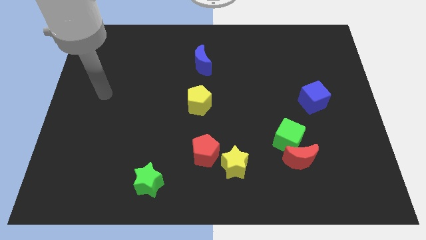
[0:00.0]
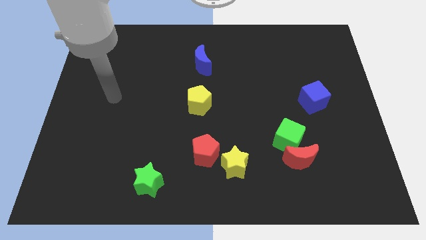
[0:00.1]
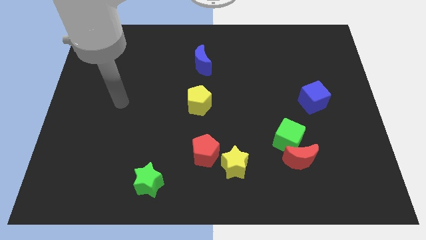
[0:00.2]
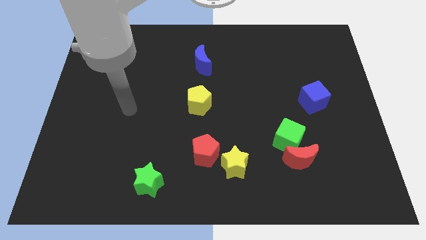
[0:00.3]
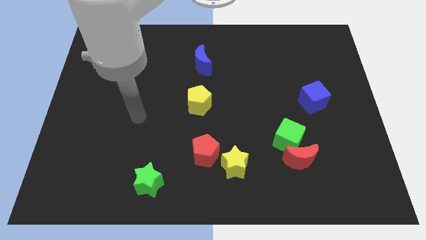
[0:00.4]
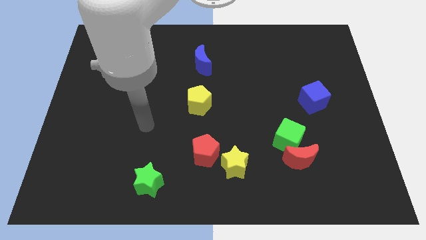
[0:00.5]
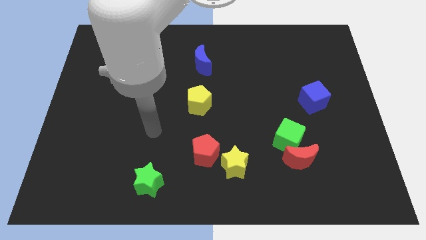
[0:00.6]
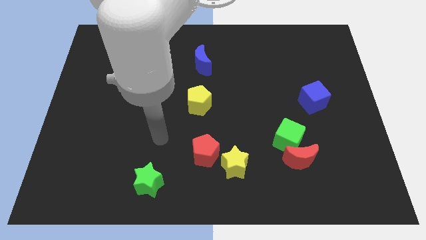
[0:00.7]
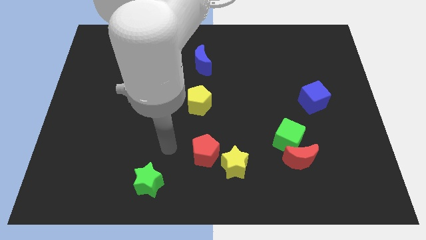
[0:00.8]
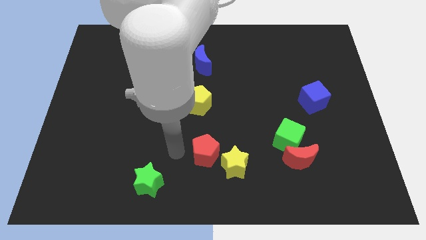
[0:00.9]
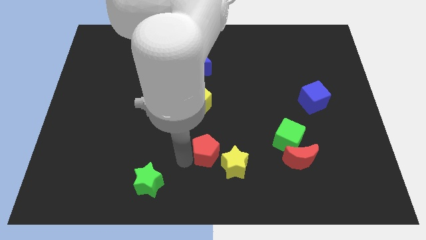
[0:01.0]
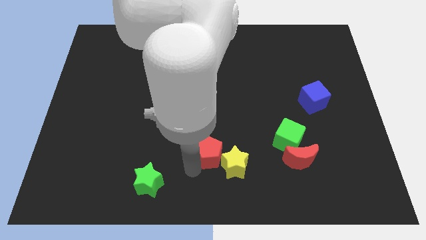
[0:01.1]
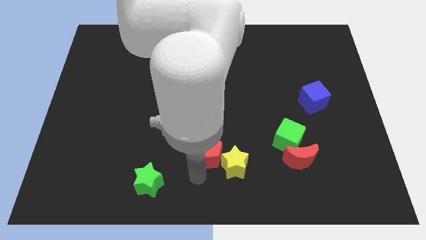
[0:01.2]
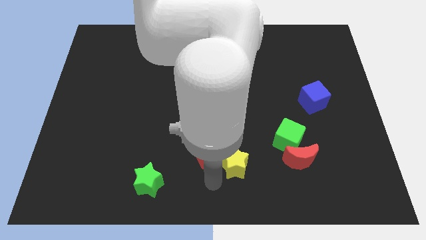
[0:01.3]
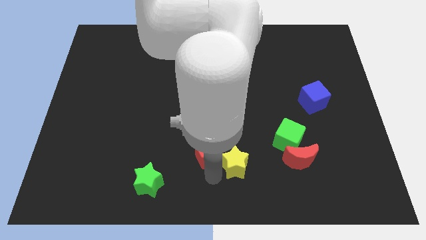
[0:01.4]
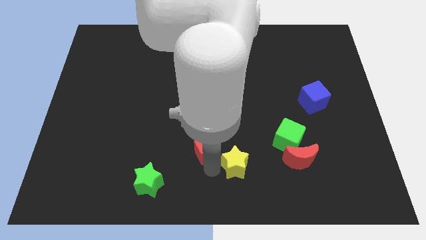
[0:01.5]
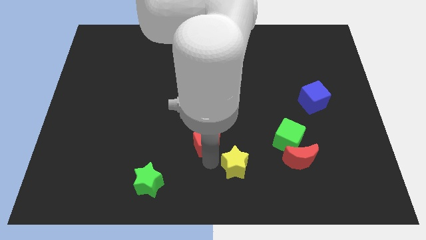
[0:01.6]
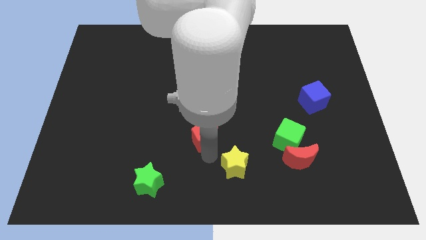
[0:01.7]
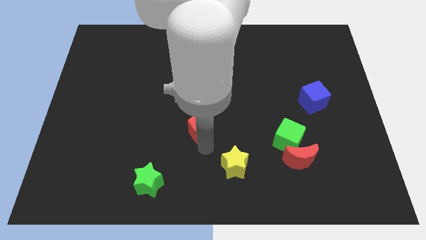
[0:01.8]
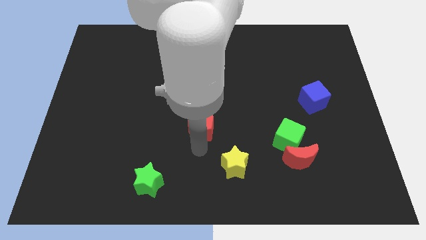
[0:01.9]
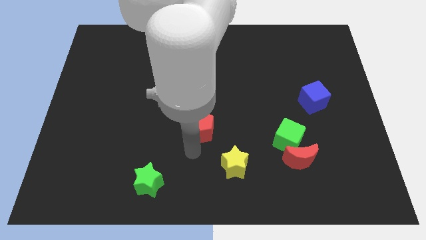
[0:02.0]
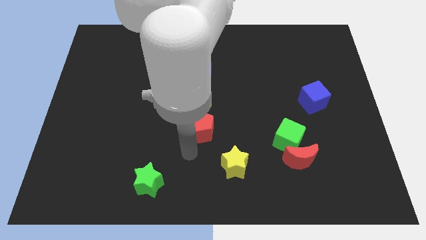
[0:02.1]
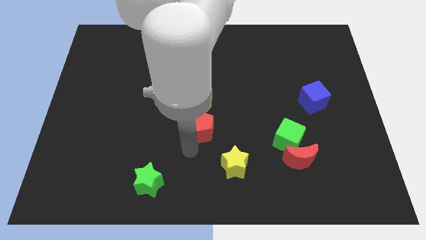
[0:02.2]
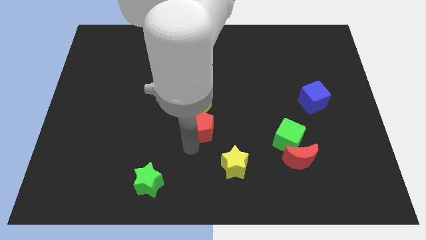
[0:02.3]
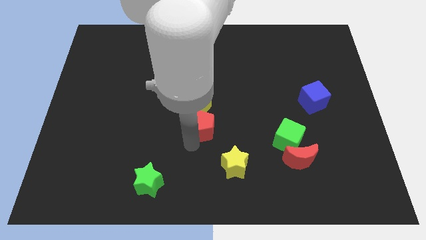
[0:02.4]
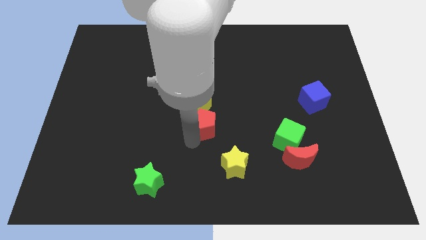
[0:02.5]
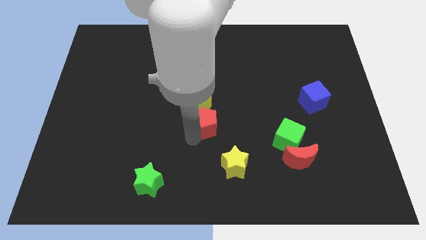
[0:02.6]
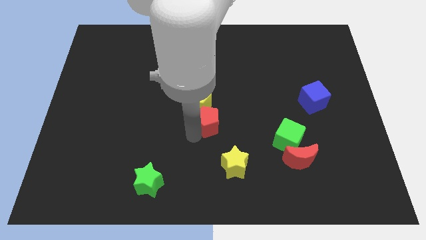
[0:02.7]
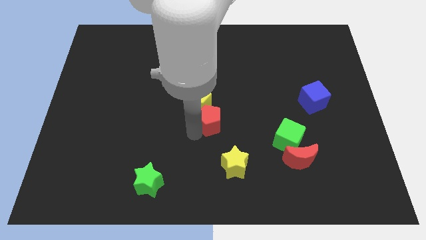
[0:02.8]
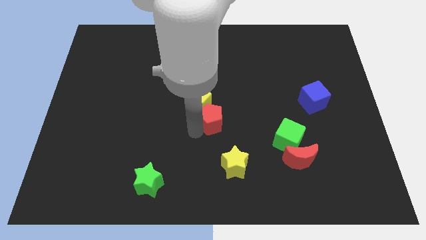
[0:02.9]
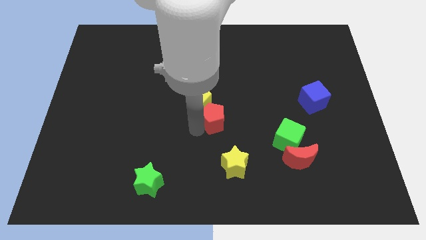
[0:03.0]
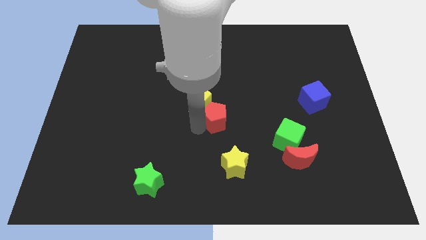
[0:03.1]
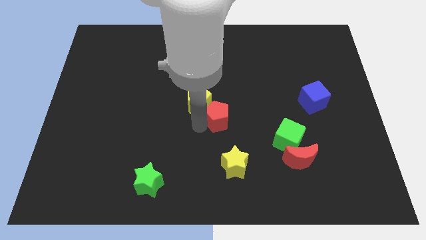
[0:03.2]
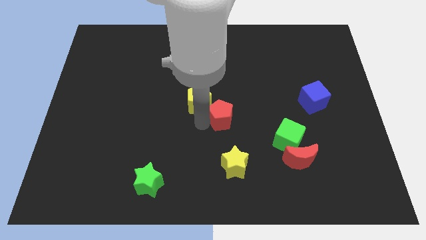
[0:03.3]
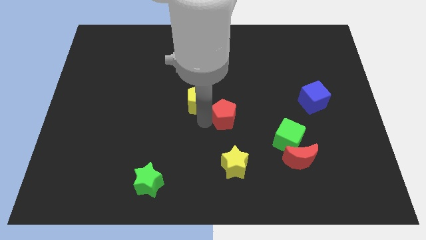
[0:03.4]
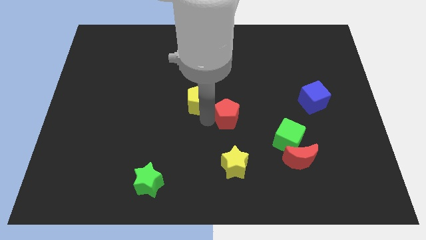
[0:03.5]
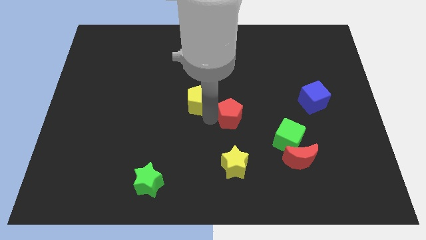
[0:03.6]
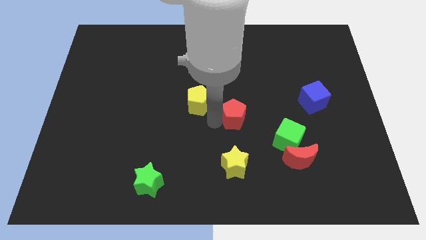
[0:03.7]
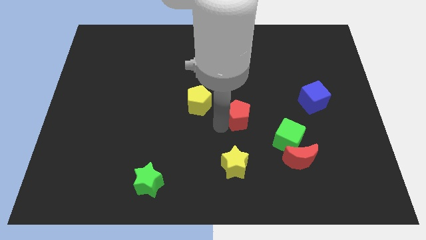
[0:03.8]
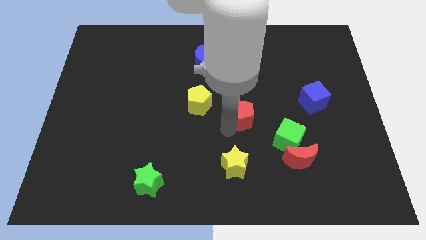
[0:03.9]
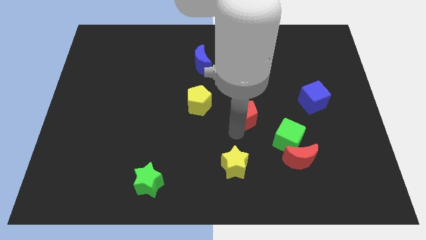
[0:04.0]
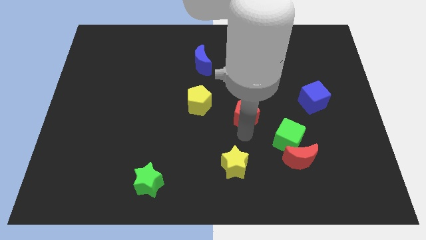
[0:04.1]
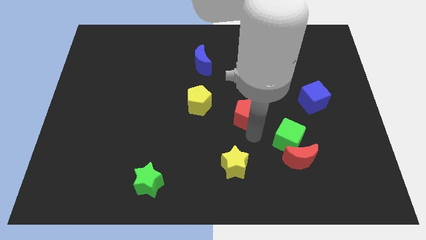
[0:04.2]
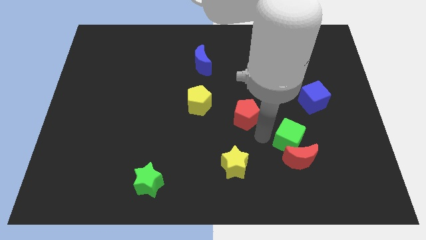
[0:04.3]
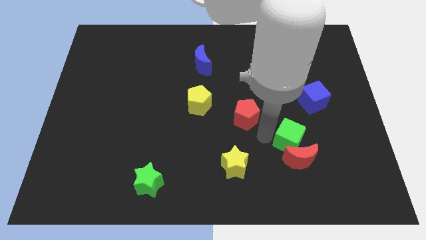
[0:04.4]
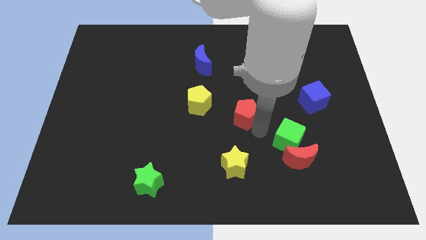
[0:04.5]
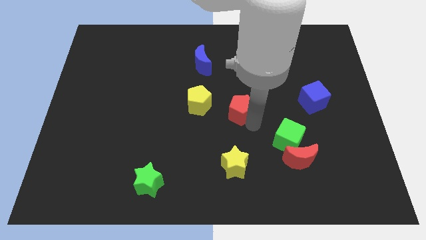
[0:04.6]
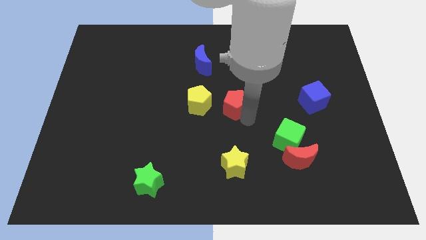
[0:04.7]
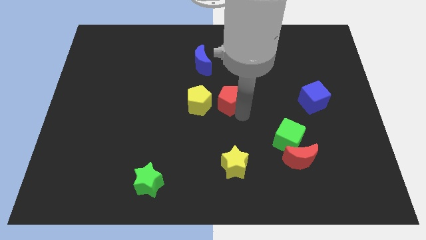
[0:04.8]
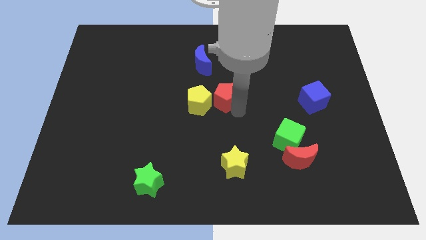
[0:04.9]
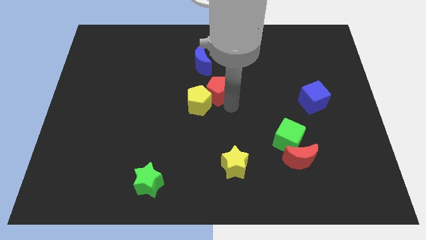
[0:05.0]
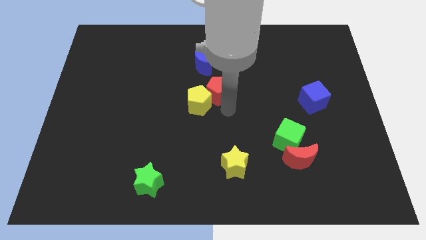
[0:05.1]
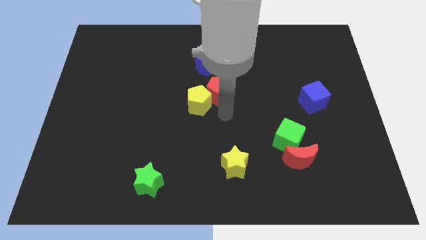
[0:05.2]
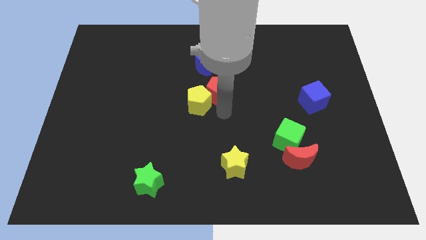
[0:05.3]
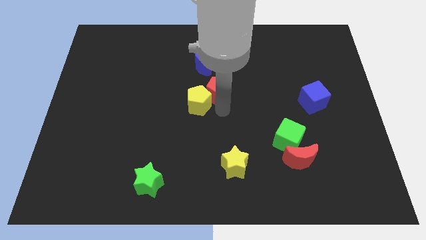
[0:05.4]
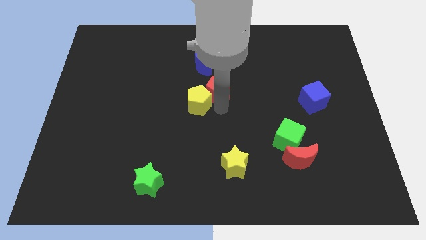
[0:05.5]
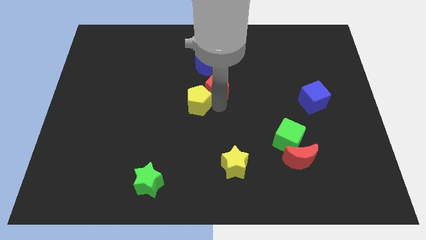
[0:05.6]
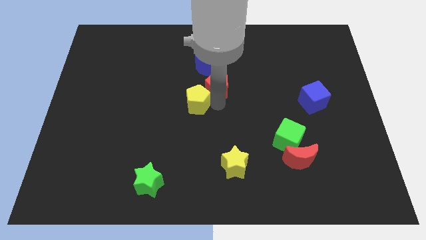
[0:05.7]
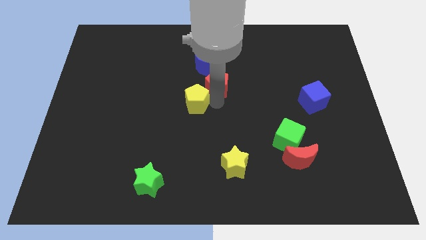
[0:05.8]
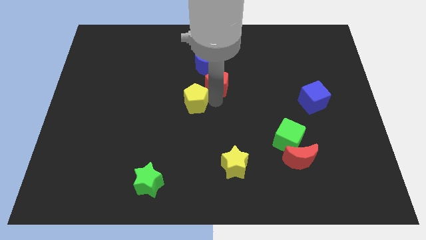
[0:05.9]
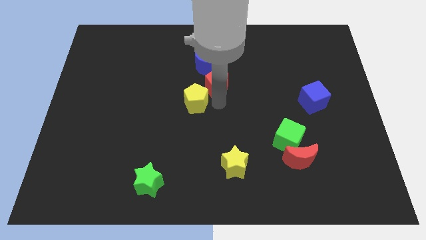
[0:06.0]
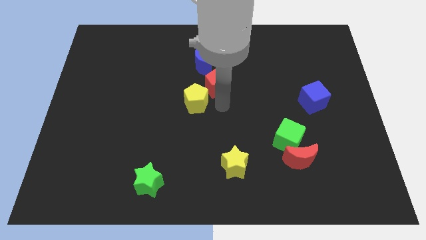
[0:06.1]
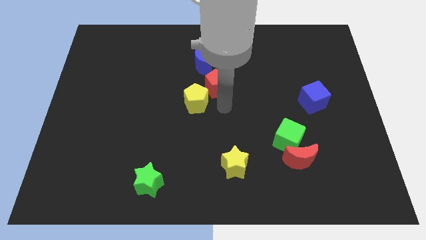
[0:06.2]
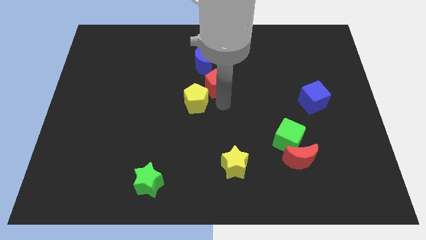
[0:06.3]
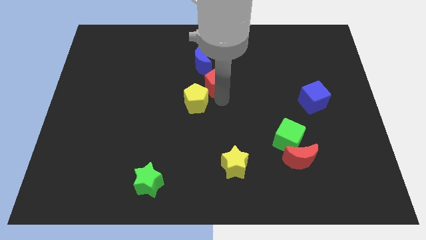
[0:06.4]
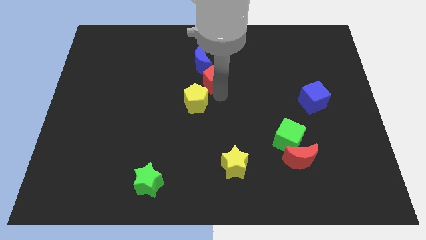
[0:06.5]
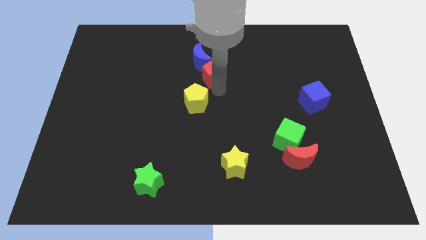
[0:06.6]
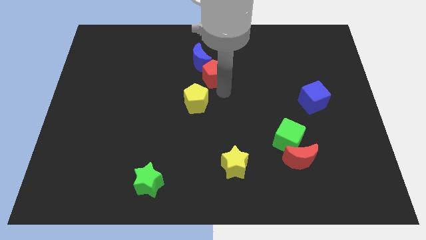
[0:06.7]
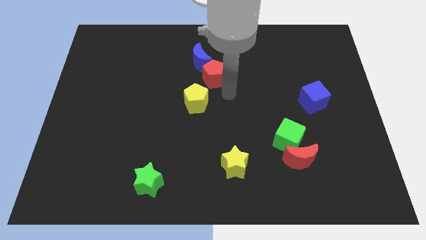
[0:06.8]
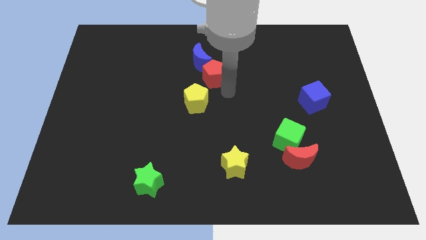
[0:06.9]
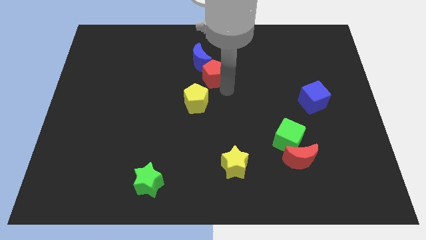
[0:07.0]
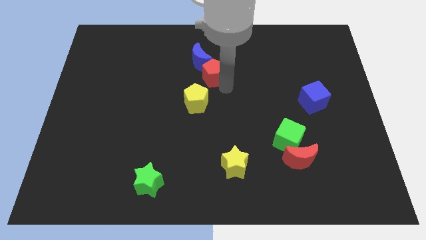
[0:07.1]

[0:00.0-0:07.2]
put the red pentagon towards the blue moon

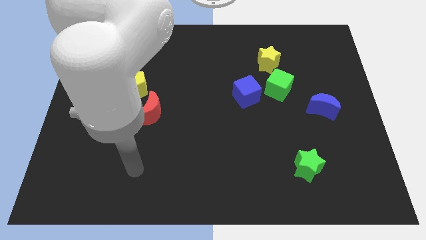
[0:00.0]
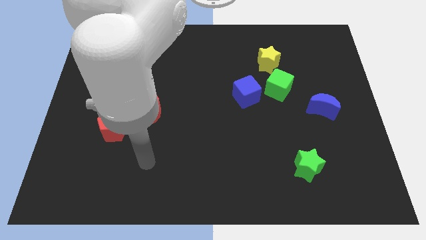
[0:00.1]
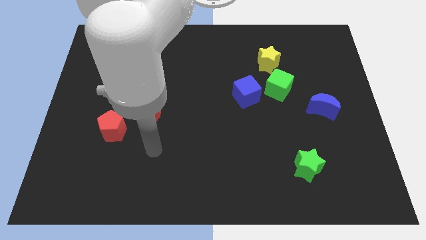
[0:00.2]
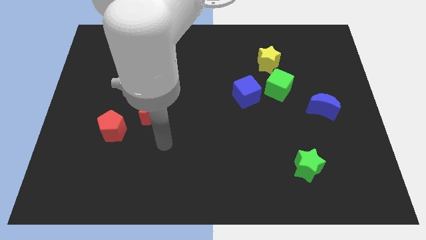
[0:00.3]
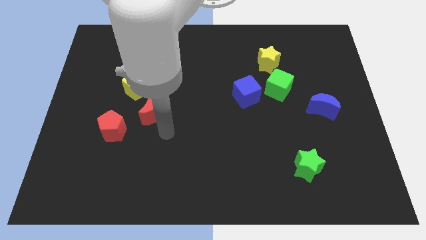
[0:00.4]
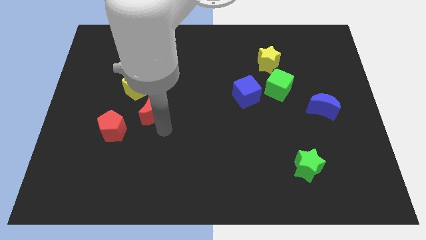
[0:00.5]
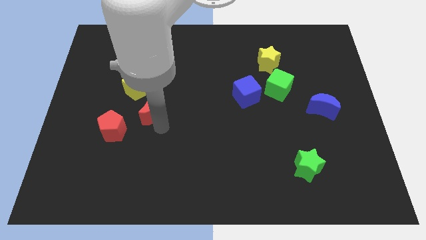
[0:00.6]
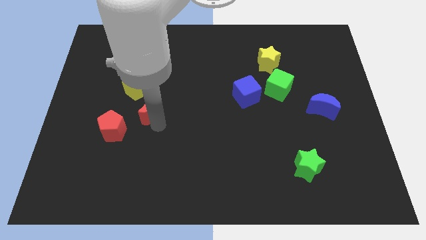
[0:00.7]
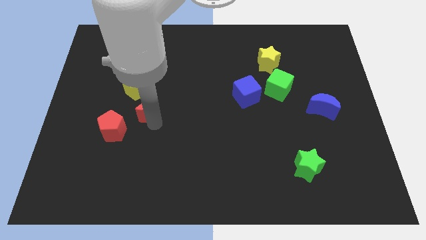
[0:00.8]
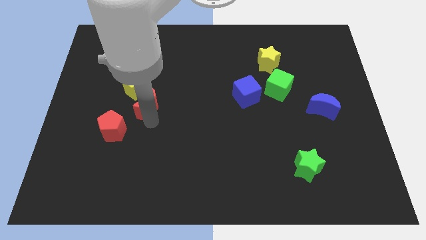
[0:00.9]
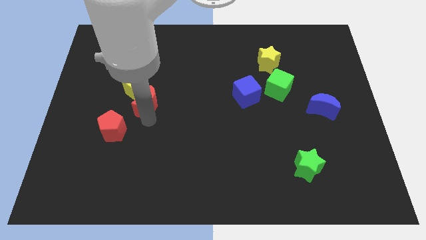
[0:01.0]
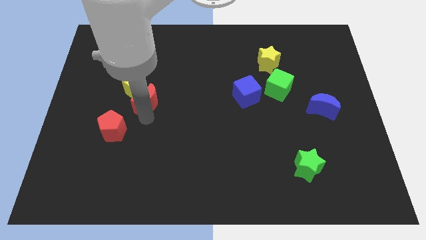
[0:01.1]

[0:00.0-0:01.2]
push the red moon next to the yellow pentagon
